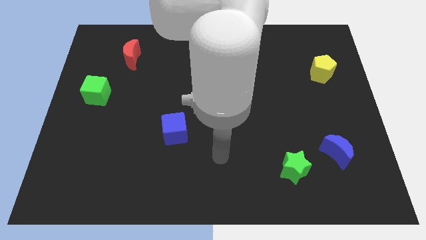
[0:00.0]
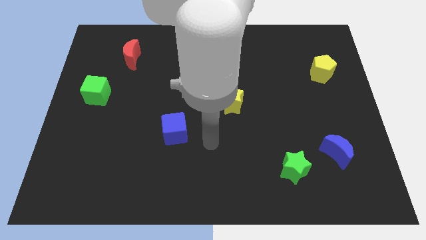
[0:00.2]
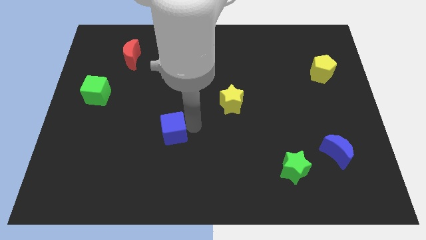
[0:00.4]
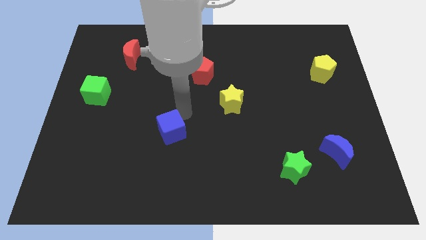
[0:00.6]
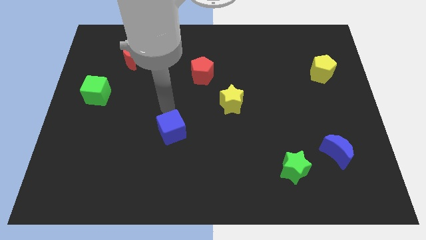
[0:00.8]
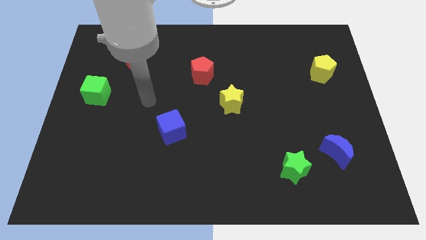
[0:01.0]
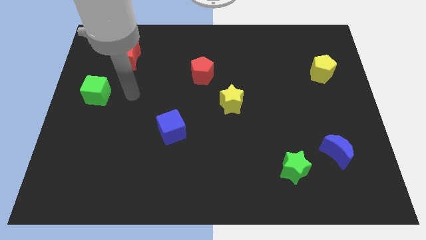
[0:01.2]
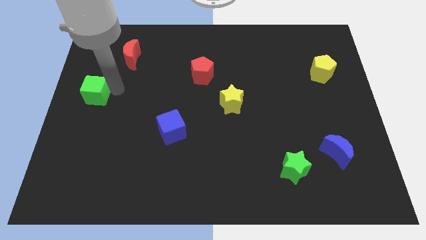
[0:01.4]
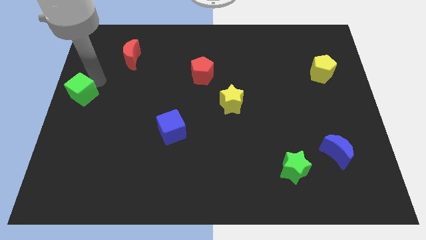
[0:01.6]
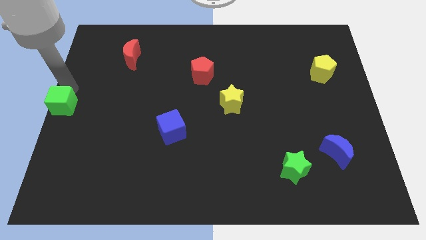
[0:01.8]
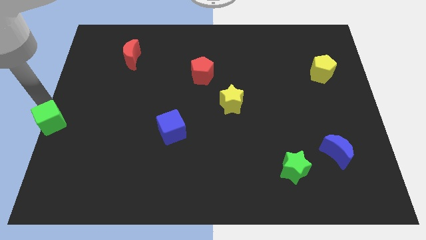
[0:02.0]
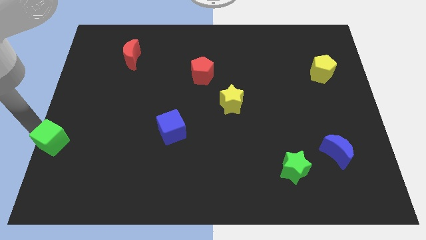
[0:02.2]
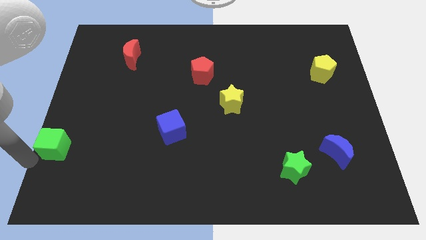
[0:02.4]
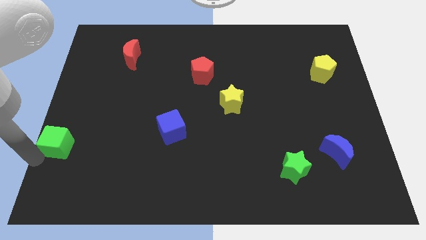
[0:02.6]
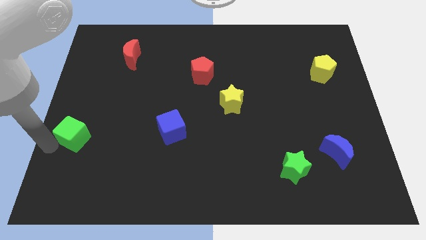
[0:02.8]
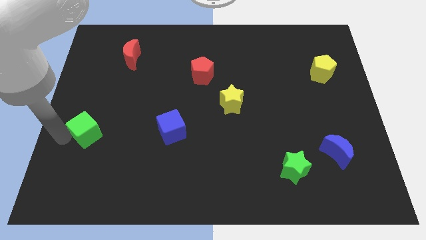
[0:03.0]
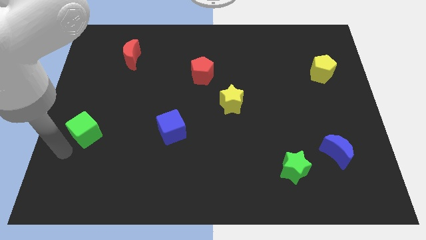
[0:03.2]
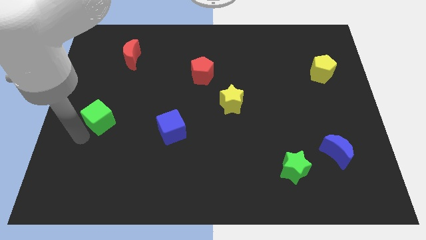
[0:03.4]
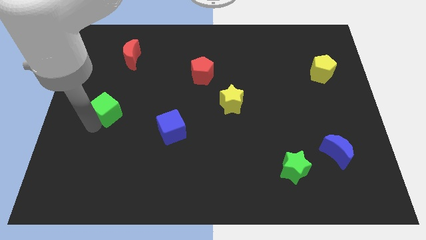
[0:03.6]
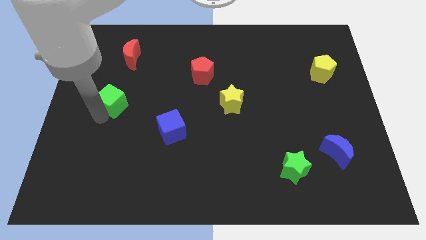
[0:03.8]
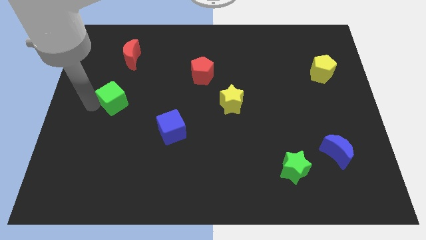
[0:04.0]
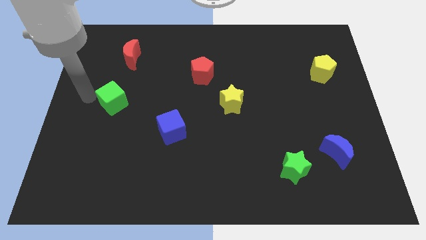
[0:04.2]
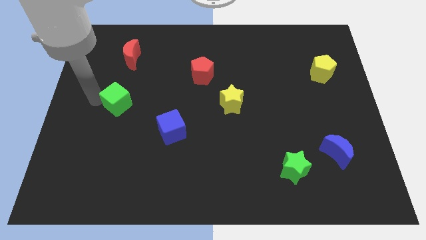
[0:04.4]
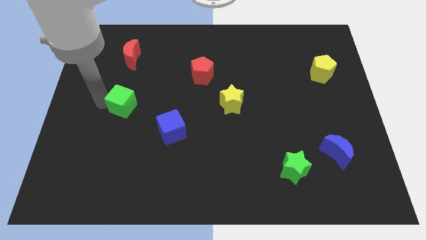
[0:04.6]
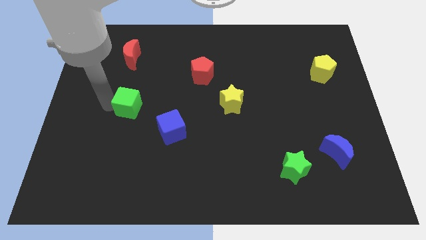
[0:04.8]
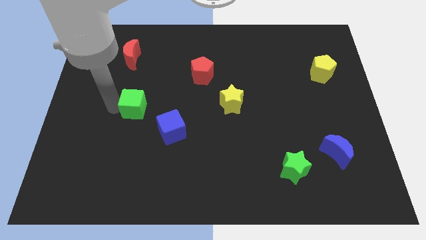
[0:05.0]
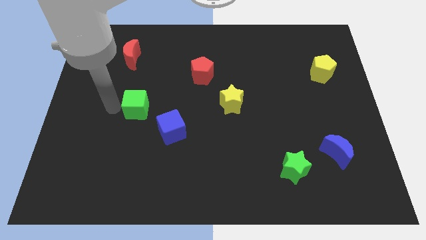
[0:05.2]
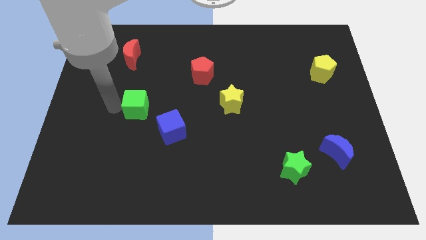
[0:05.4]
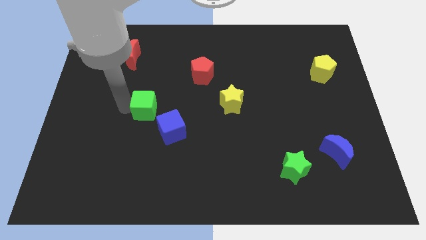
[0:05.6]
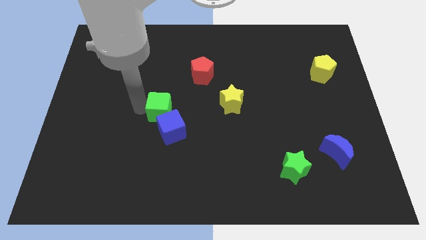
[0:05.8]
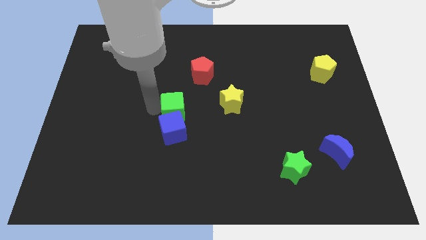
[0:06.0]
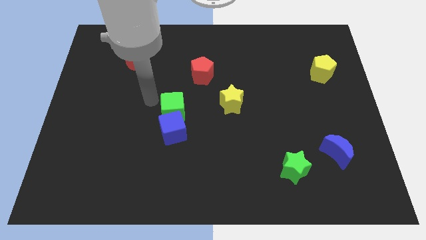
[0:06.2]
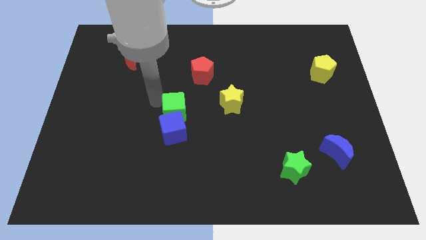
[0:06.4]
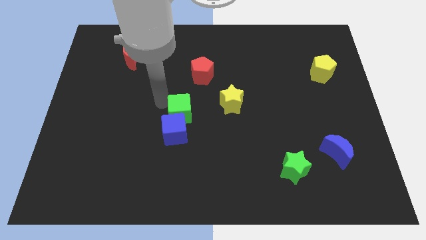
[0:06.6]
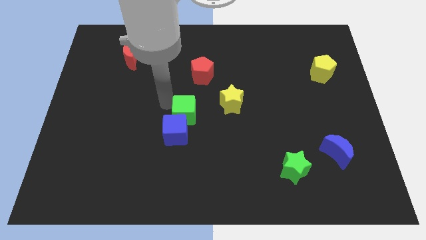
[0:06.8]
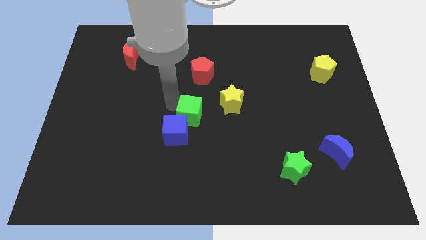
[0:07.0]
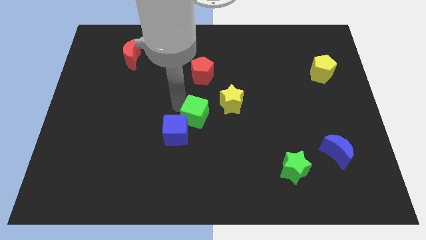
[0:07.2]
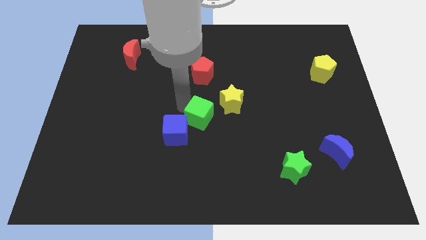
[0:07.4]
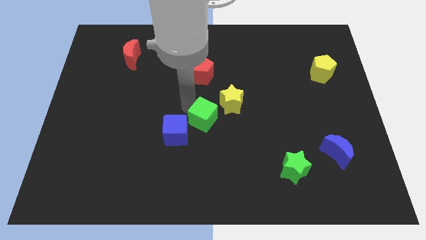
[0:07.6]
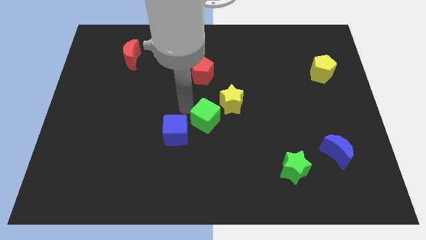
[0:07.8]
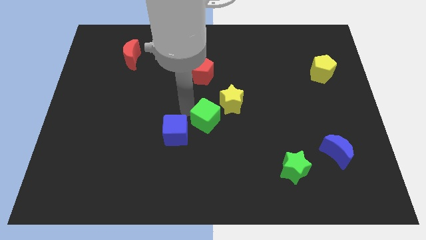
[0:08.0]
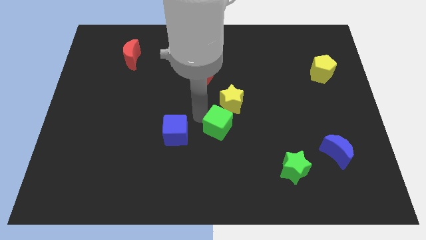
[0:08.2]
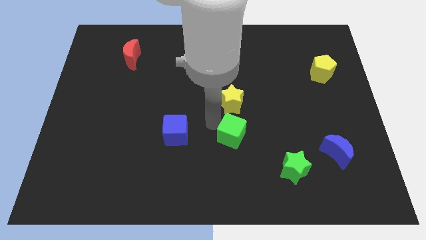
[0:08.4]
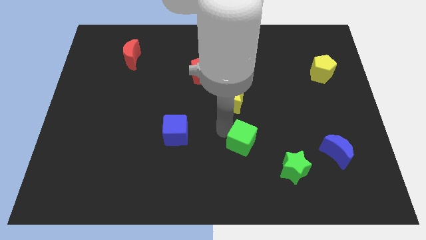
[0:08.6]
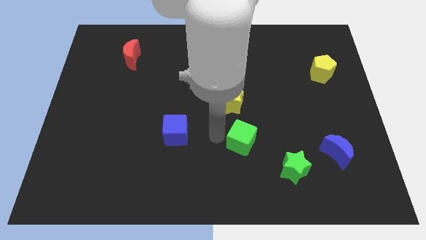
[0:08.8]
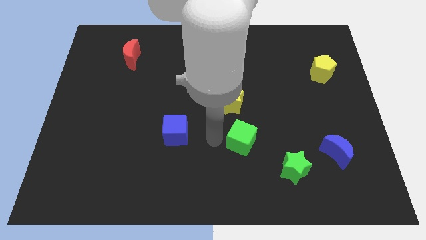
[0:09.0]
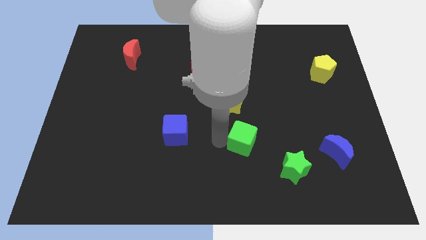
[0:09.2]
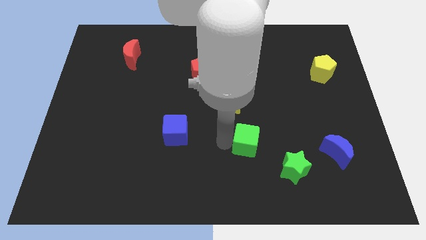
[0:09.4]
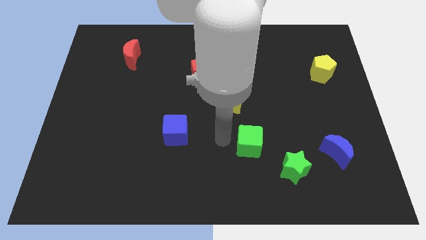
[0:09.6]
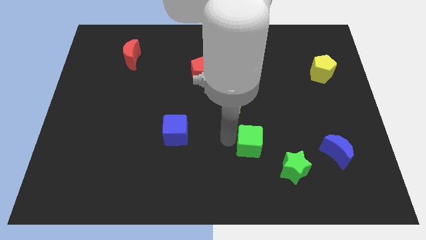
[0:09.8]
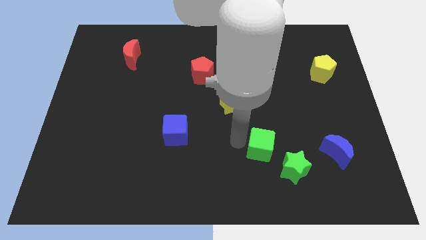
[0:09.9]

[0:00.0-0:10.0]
slide the green cube left of the blue moon

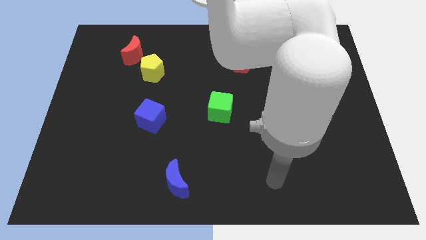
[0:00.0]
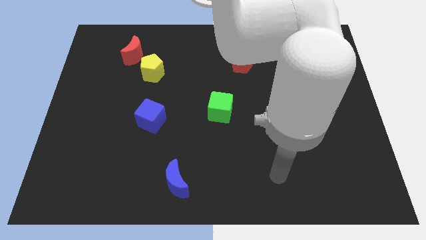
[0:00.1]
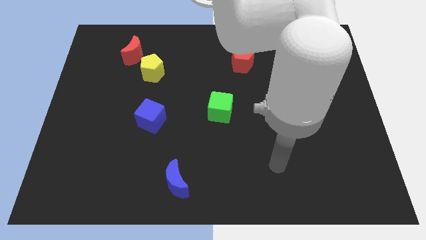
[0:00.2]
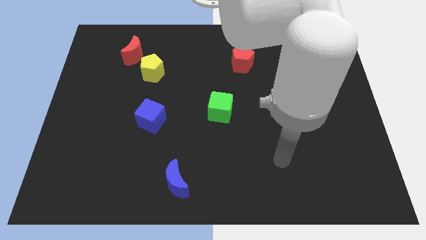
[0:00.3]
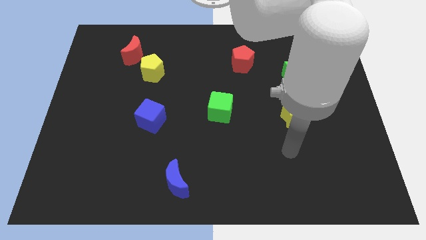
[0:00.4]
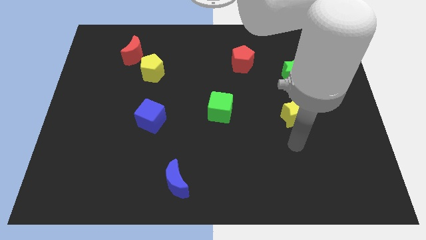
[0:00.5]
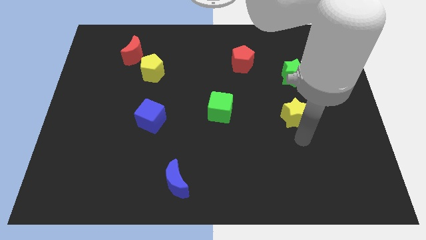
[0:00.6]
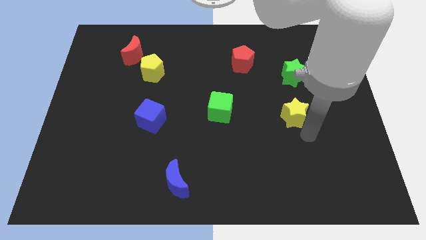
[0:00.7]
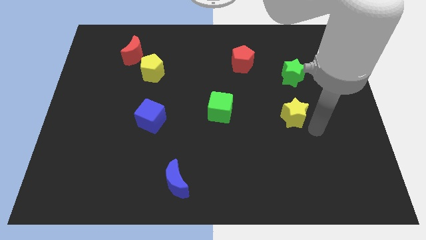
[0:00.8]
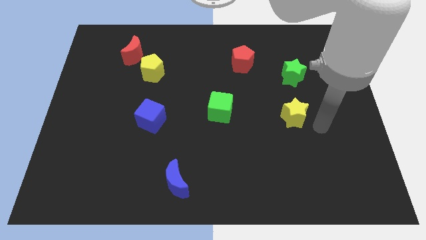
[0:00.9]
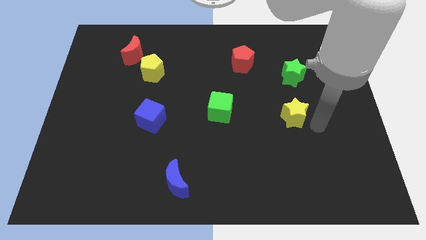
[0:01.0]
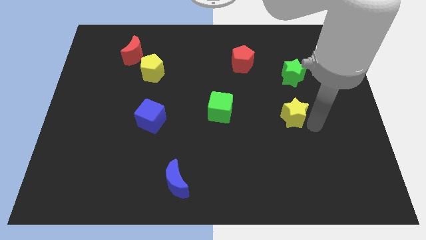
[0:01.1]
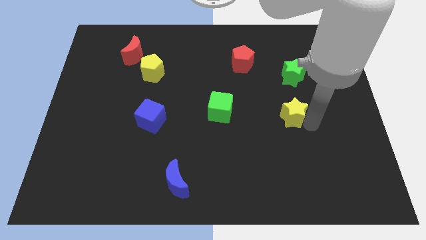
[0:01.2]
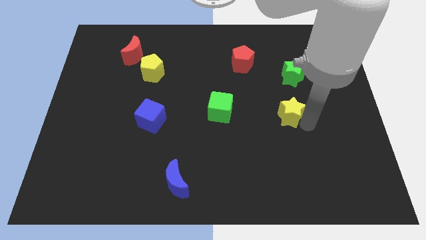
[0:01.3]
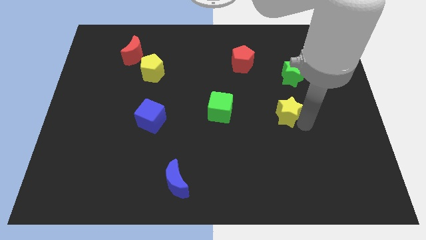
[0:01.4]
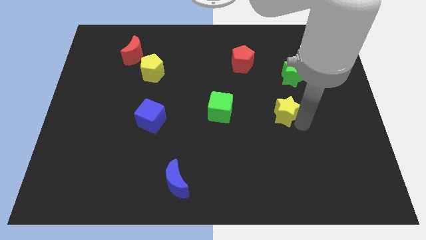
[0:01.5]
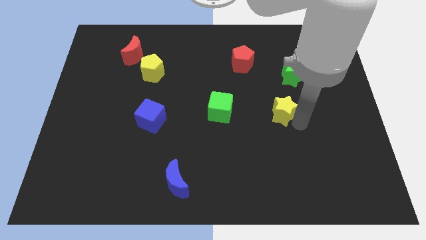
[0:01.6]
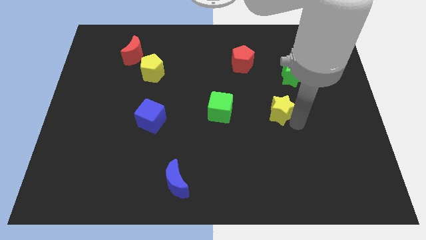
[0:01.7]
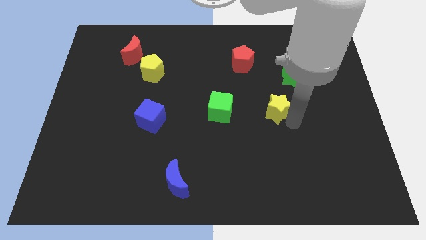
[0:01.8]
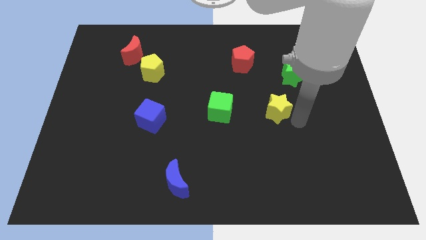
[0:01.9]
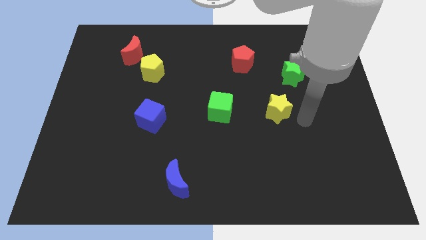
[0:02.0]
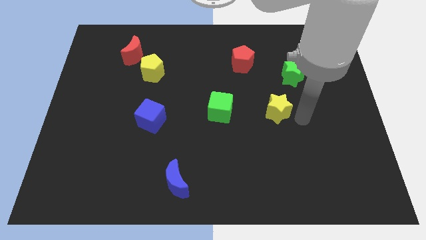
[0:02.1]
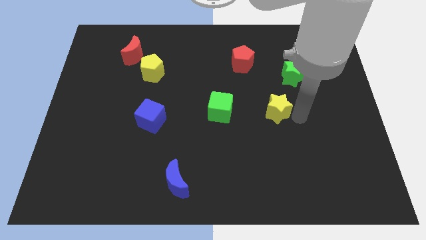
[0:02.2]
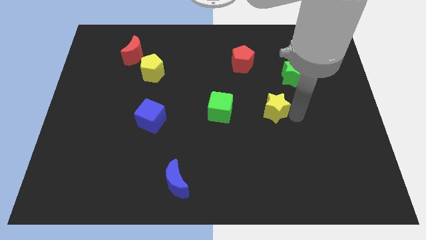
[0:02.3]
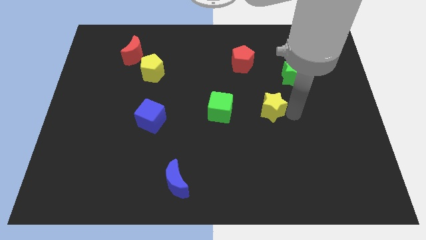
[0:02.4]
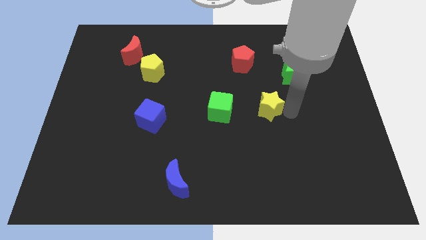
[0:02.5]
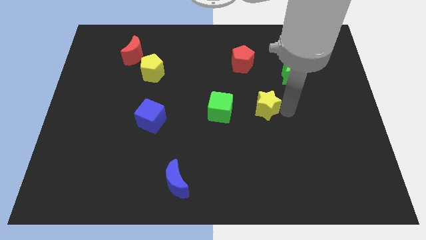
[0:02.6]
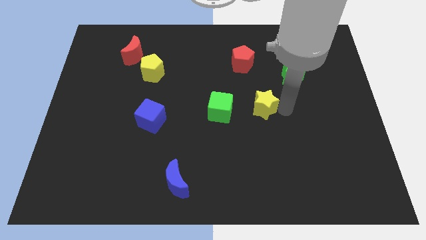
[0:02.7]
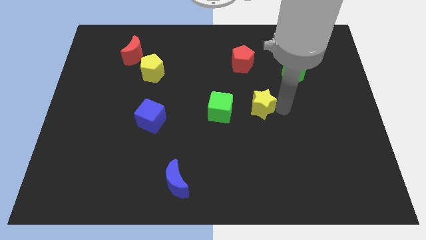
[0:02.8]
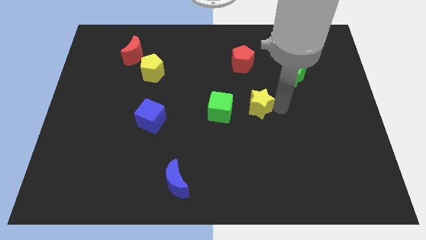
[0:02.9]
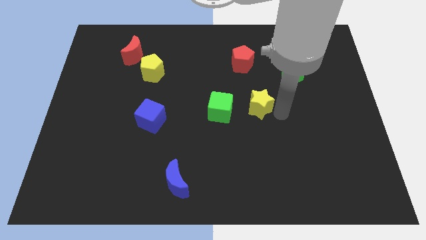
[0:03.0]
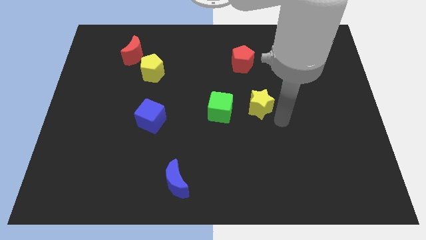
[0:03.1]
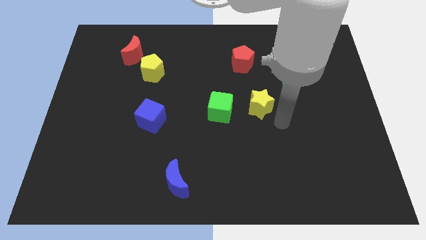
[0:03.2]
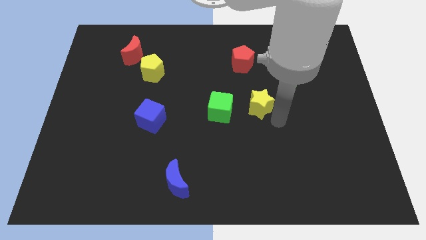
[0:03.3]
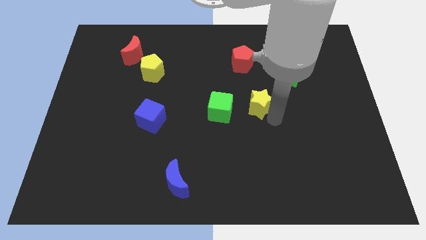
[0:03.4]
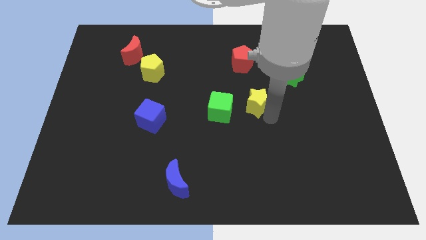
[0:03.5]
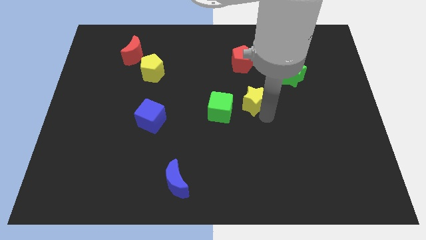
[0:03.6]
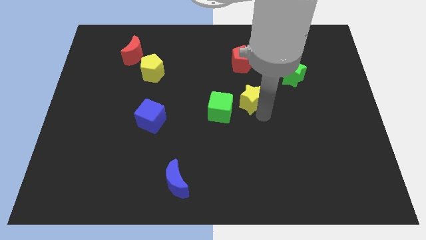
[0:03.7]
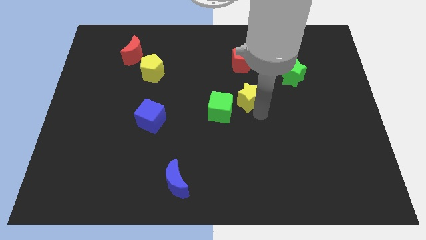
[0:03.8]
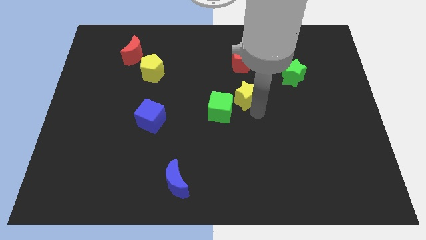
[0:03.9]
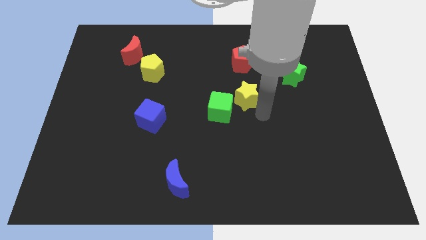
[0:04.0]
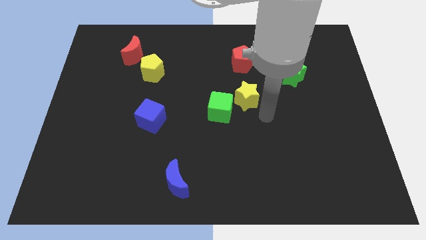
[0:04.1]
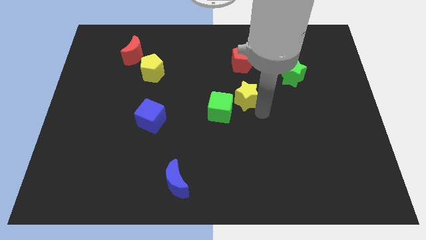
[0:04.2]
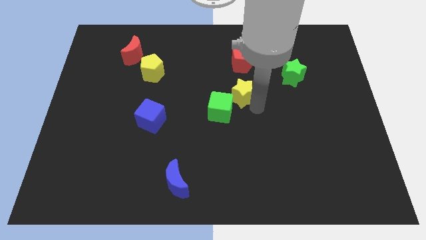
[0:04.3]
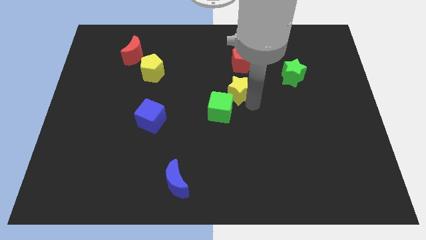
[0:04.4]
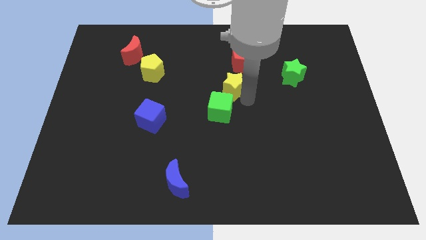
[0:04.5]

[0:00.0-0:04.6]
put the yellow star diagonally down and to the left of the red pentagon
